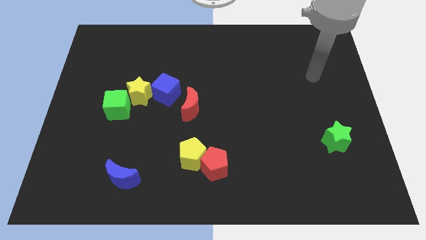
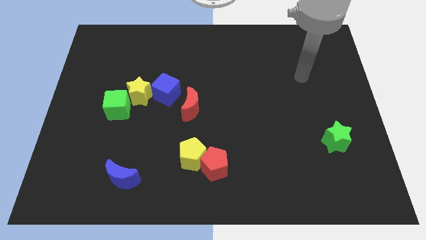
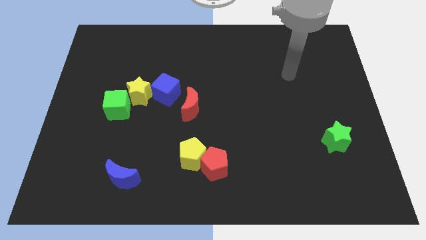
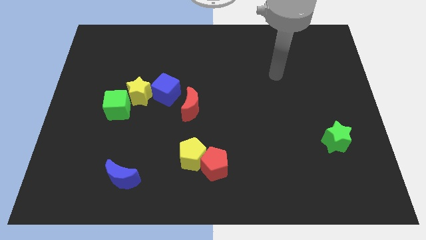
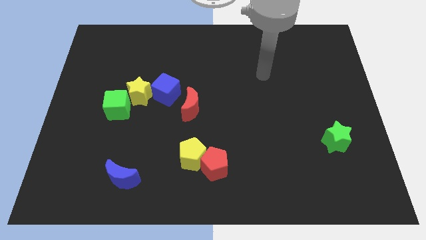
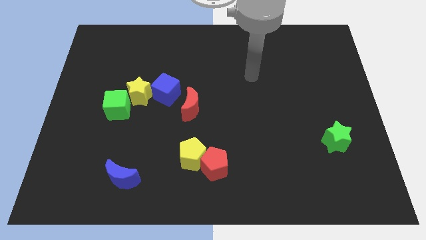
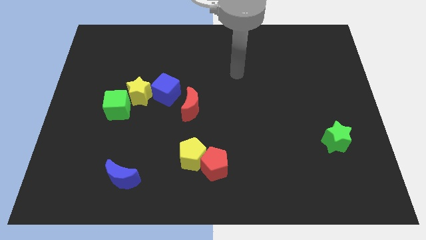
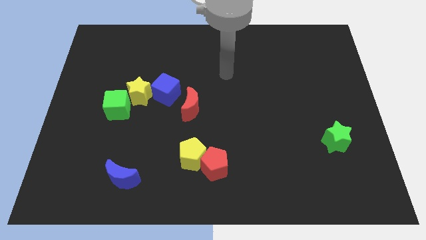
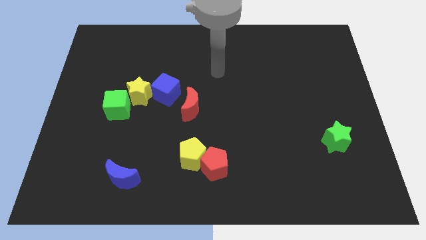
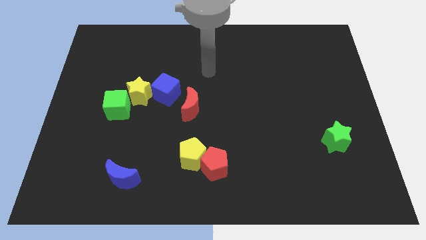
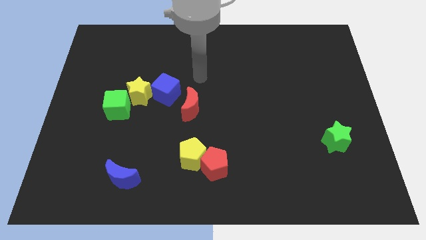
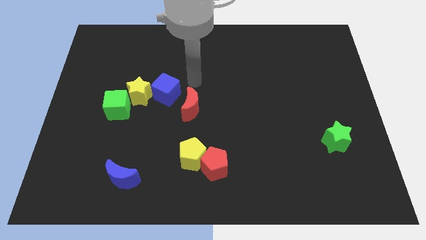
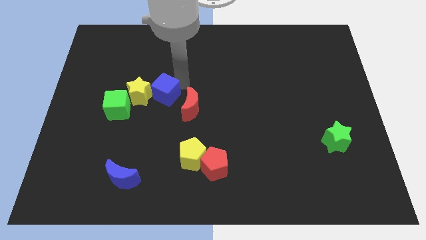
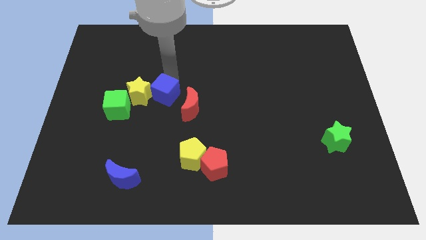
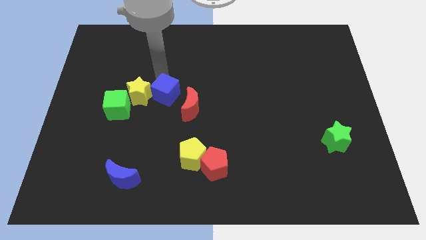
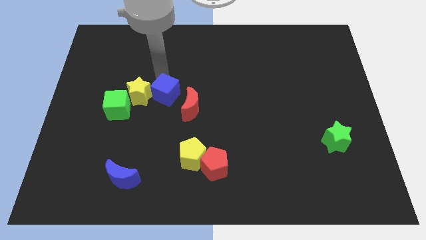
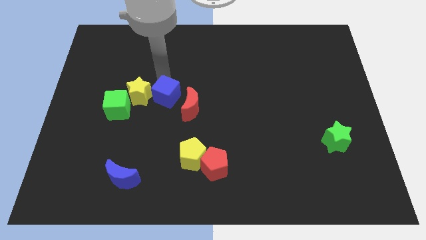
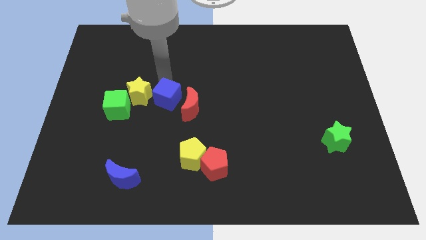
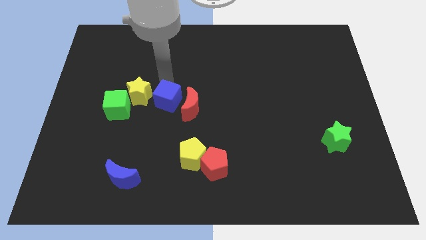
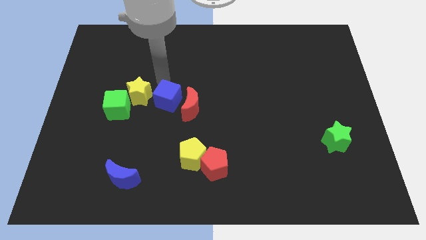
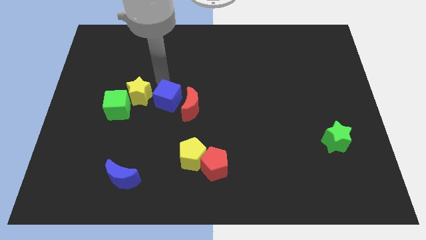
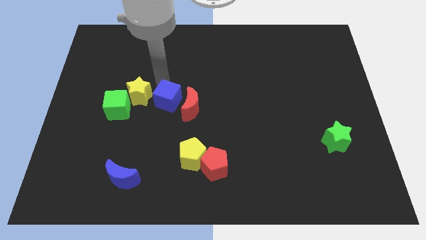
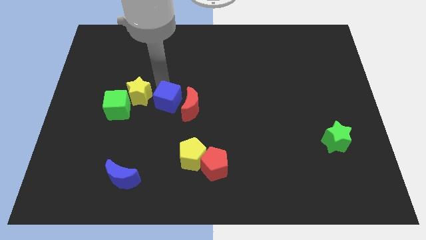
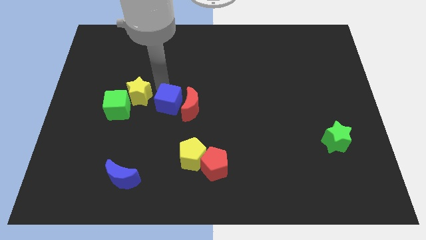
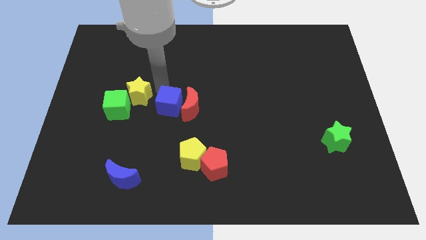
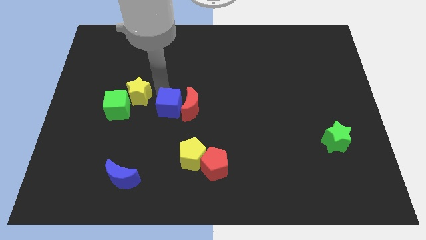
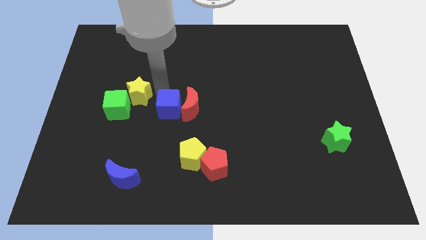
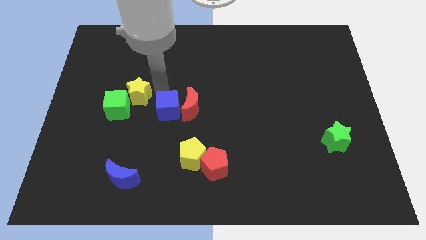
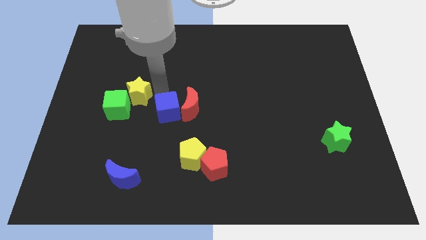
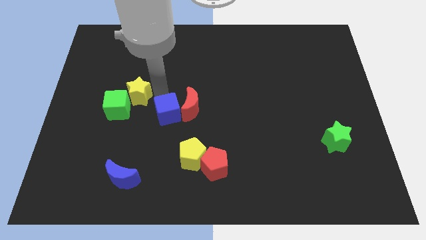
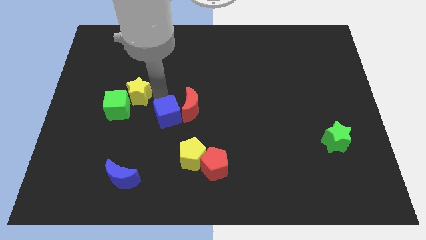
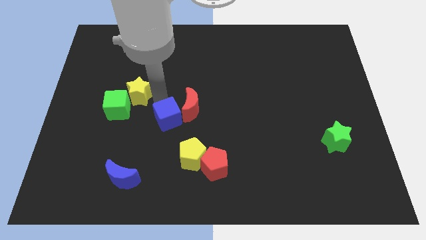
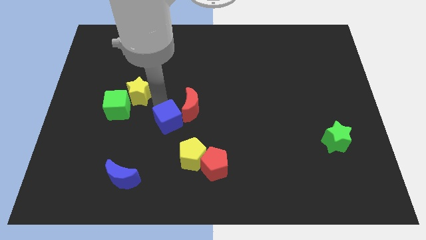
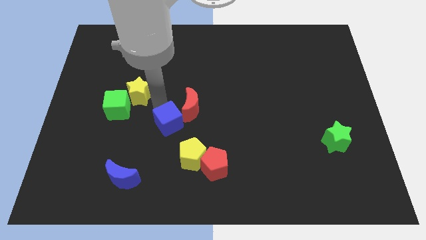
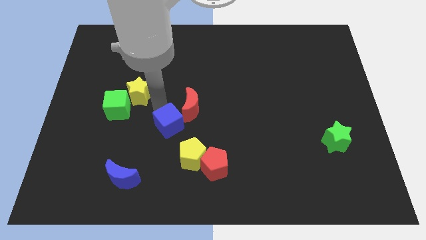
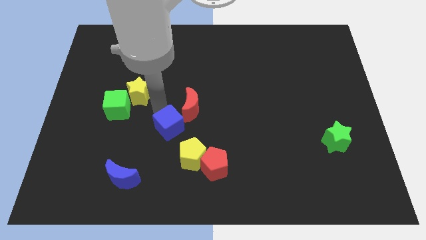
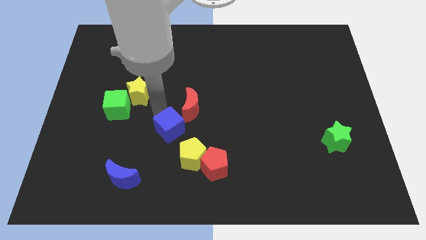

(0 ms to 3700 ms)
push the blue cube downwards and to the right diagonally a little

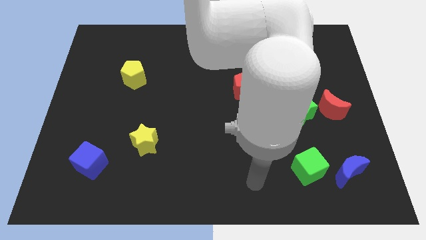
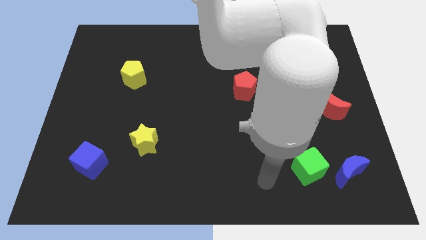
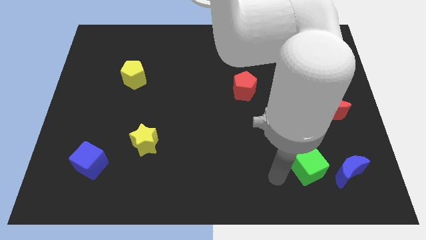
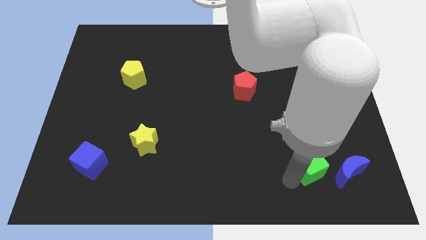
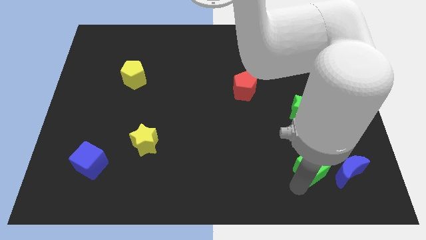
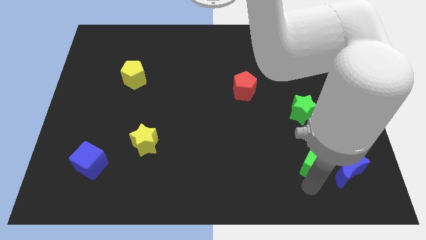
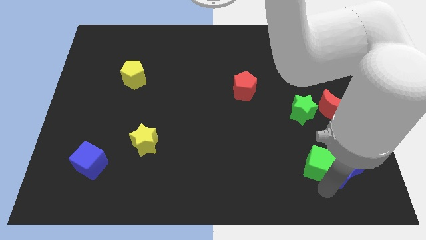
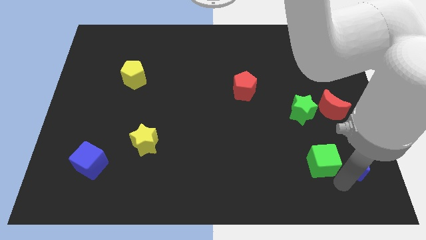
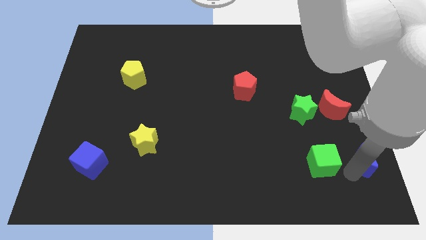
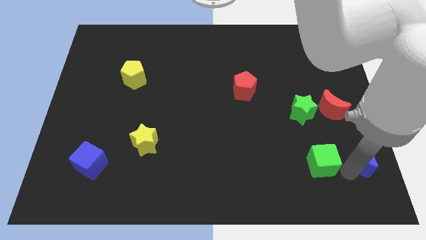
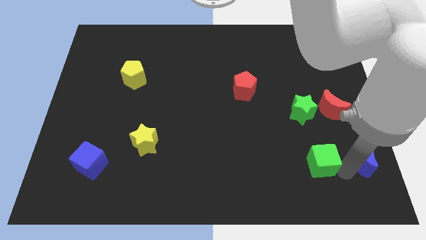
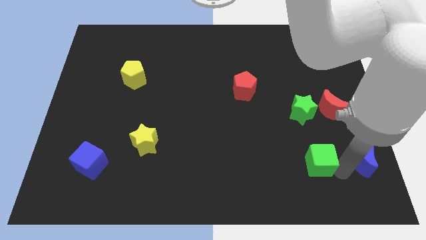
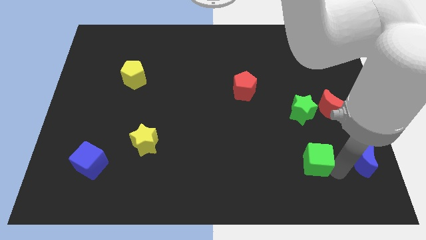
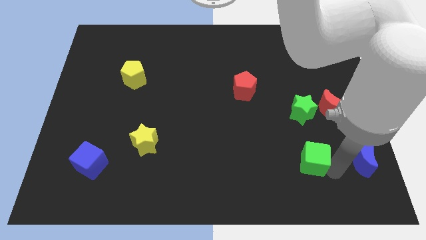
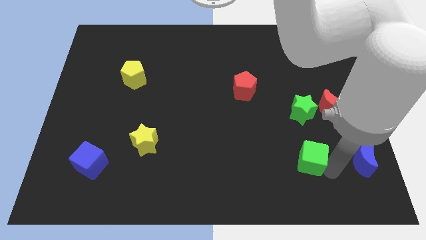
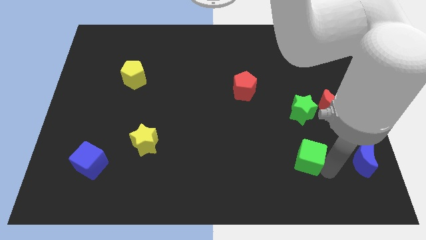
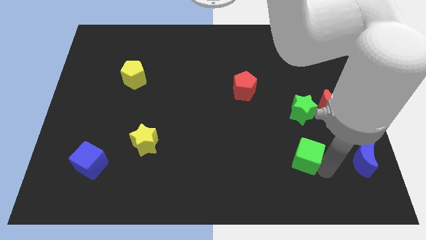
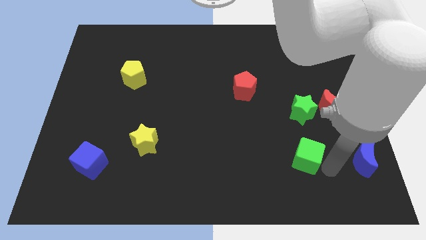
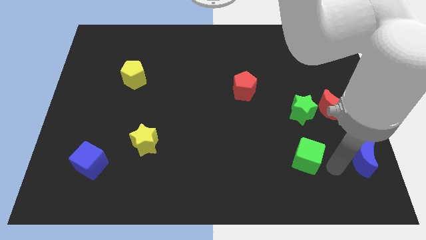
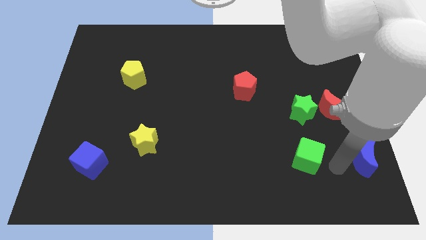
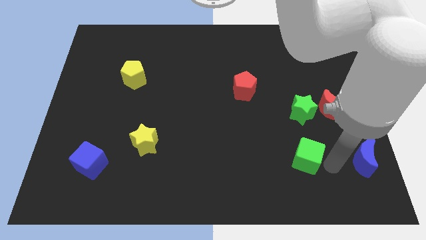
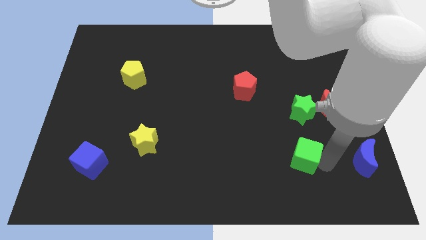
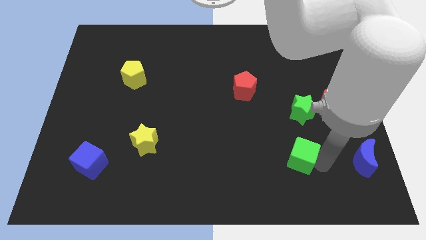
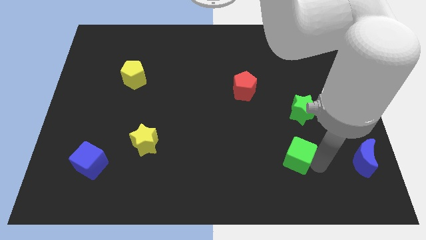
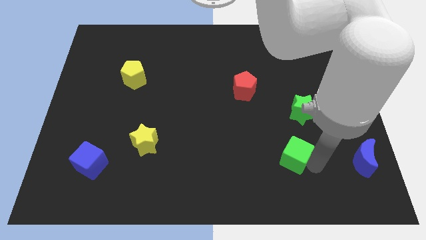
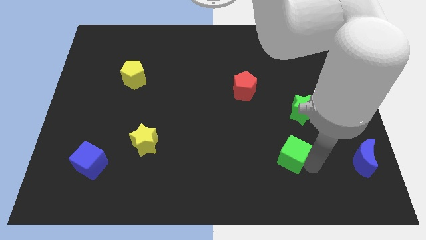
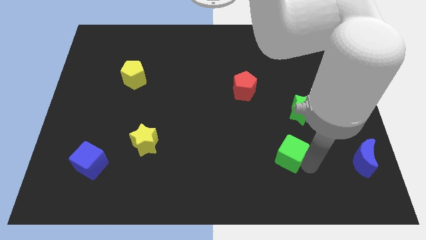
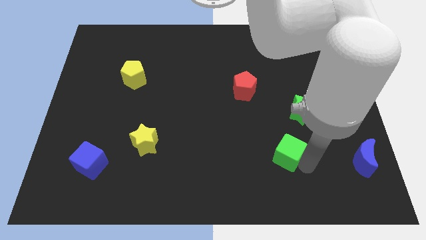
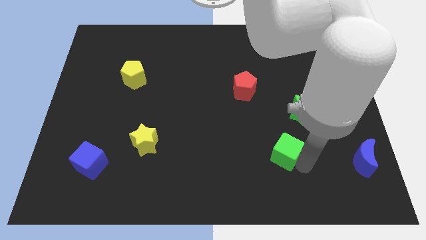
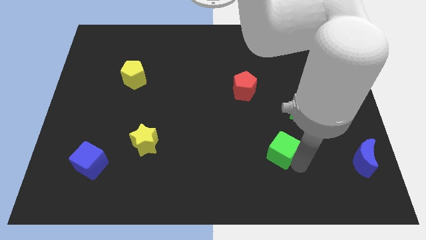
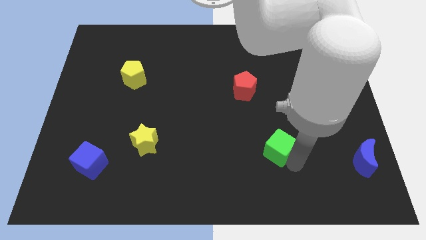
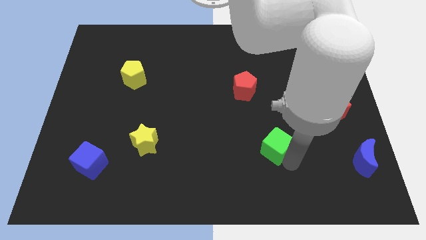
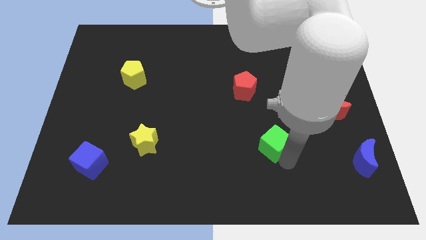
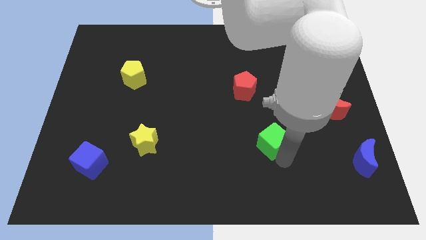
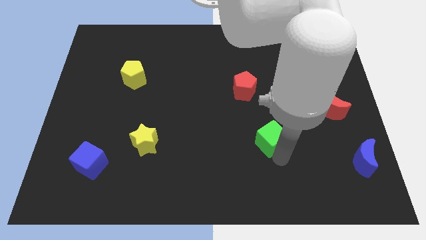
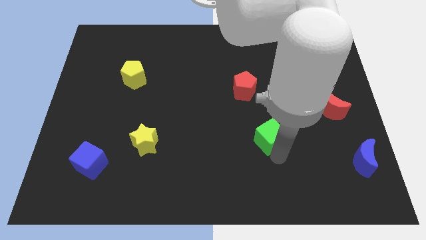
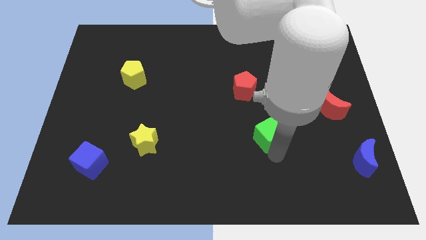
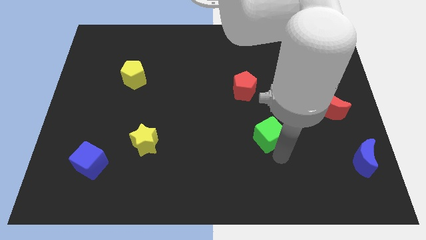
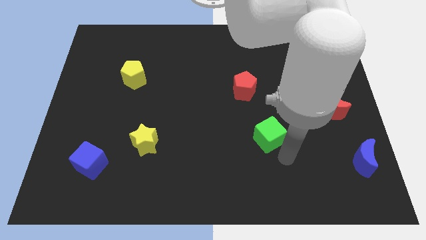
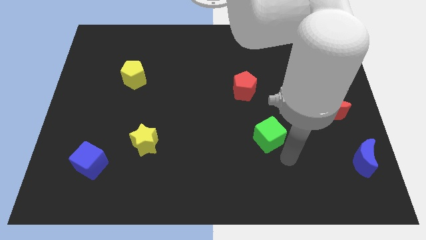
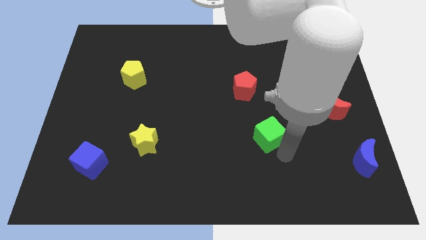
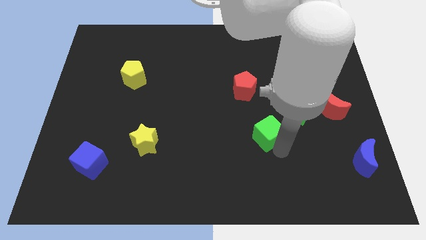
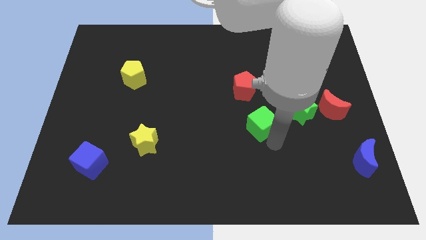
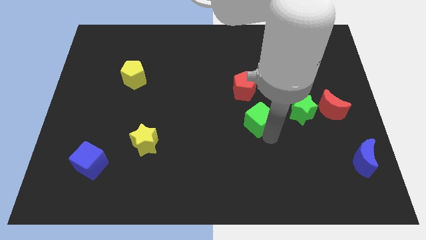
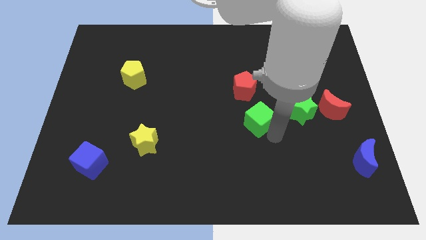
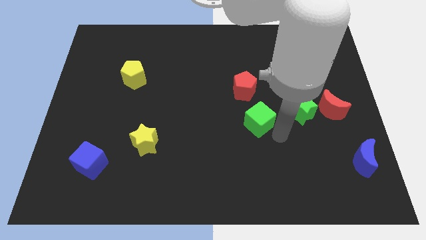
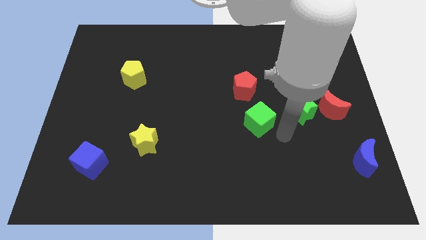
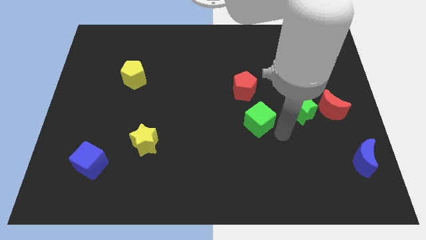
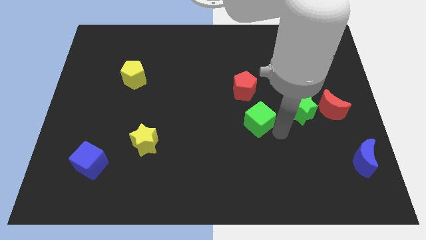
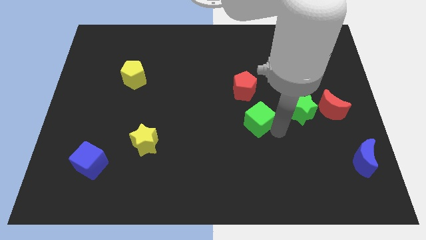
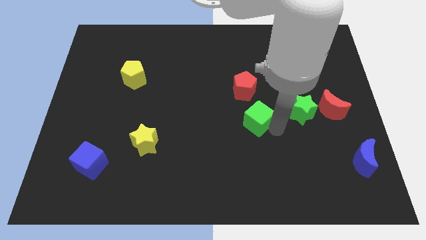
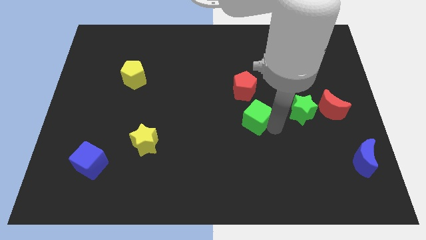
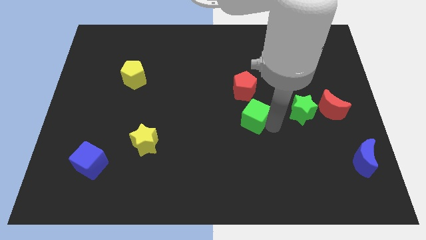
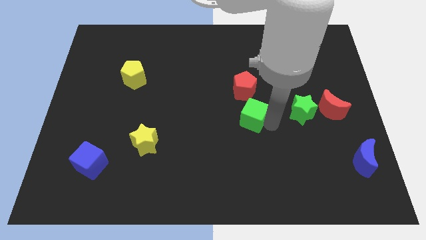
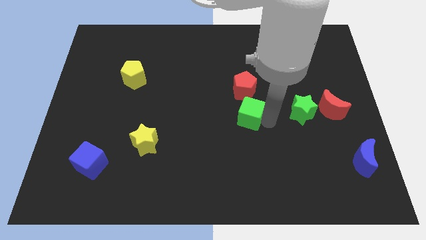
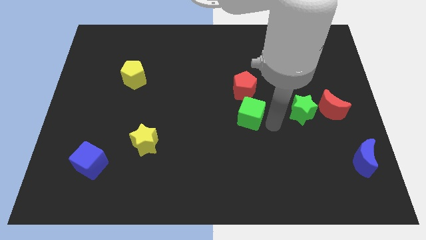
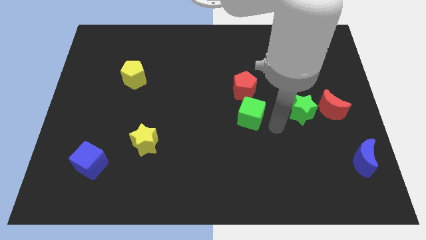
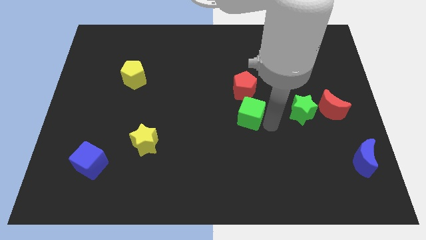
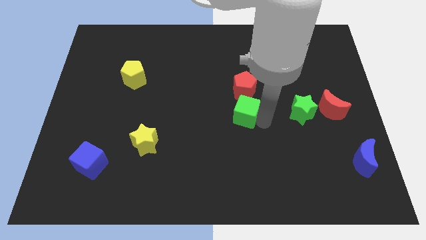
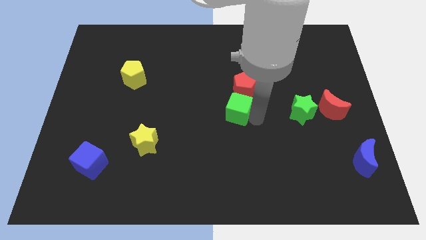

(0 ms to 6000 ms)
move the green cube upwards and to the left
